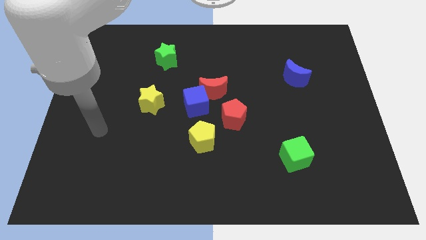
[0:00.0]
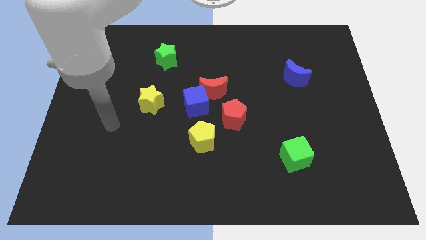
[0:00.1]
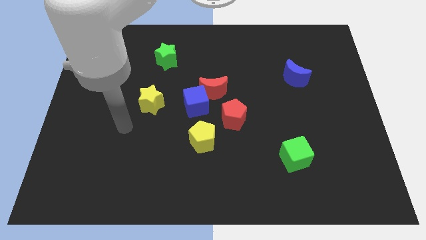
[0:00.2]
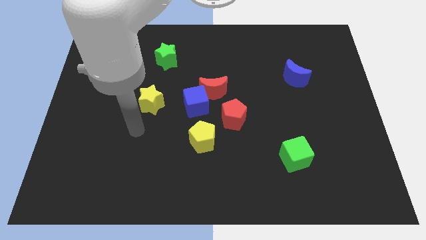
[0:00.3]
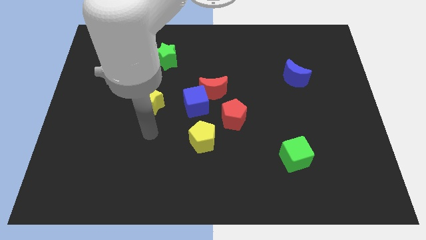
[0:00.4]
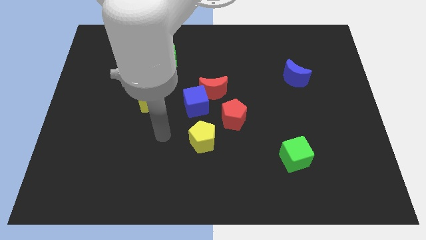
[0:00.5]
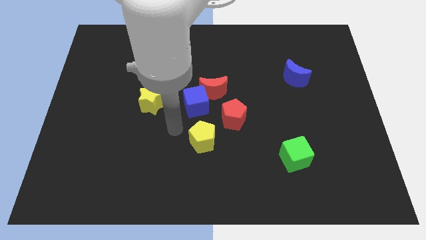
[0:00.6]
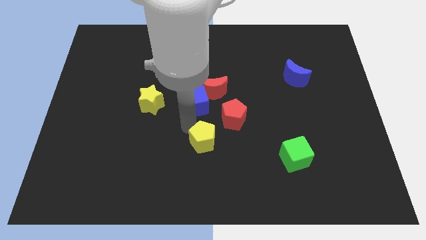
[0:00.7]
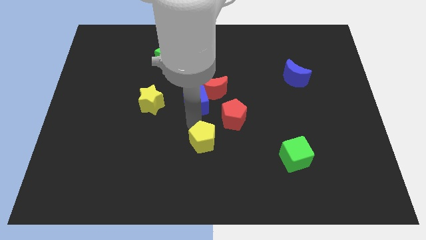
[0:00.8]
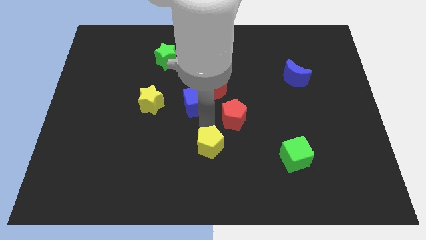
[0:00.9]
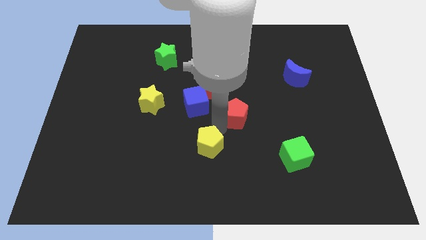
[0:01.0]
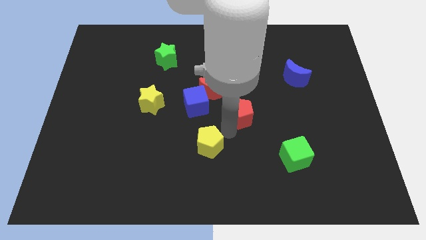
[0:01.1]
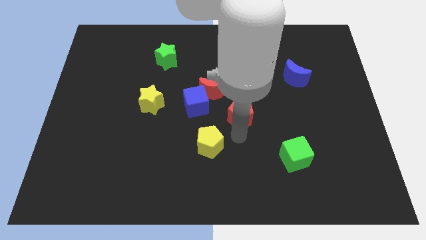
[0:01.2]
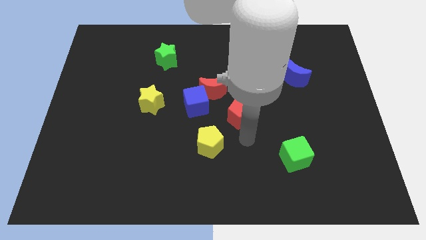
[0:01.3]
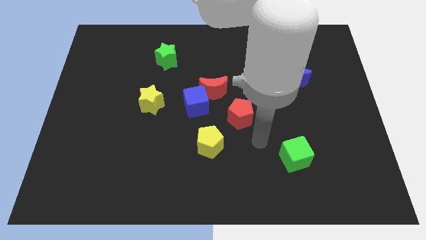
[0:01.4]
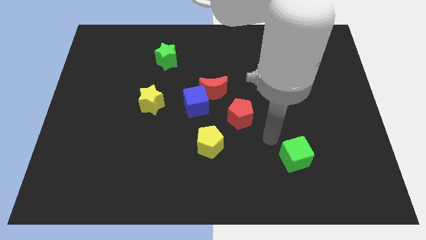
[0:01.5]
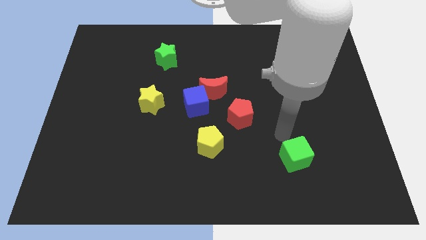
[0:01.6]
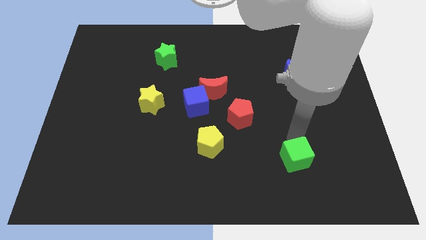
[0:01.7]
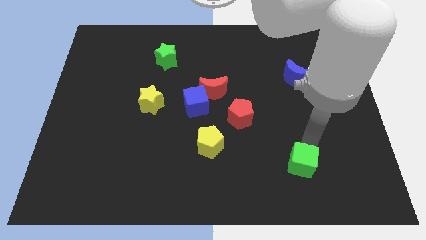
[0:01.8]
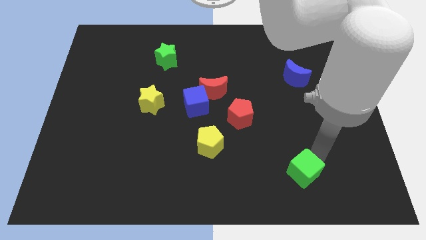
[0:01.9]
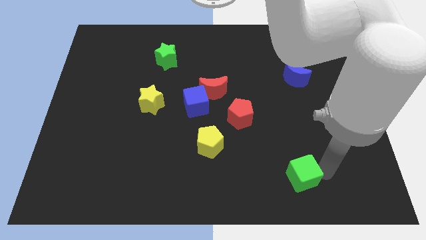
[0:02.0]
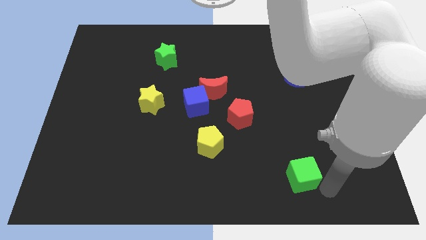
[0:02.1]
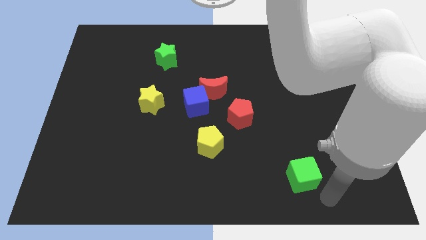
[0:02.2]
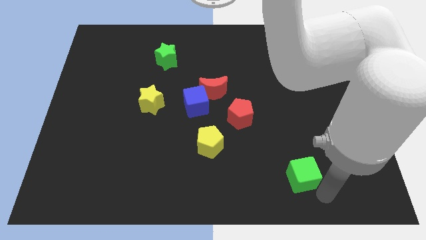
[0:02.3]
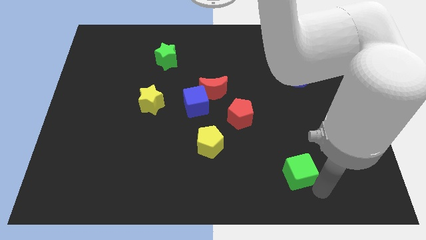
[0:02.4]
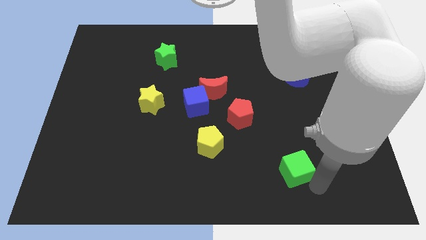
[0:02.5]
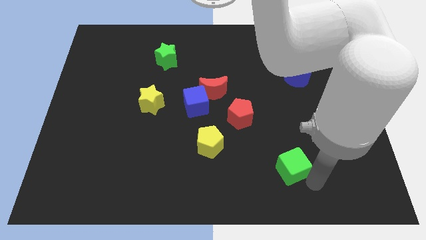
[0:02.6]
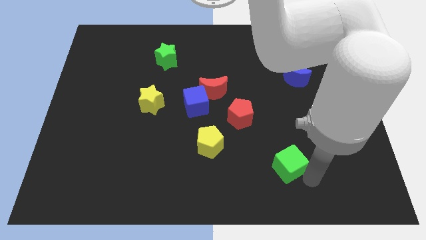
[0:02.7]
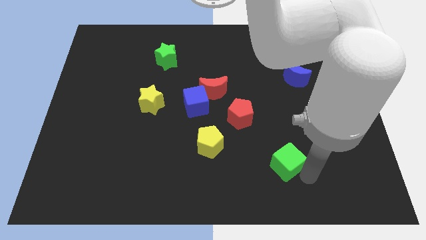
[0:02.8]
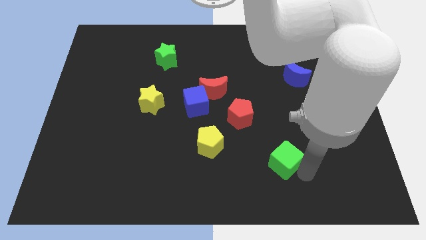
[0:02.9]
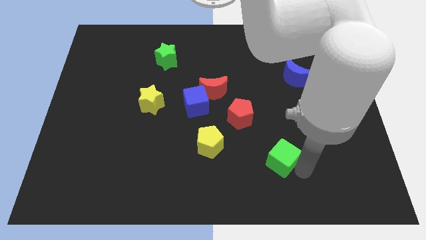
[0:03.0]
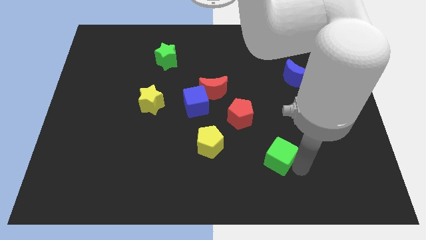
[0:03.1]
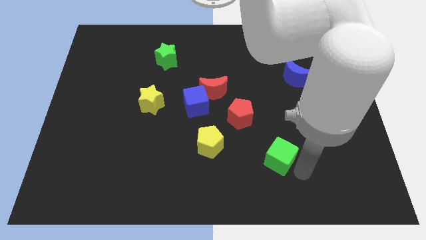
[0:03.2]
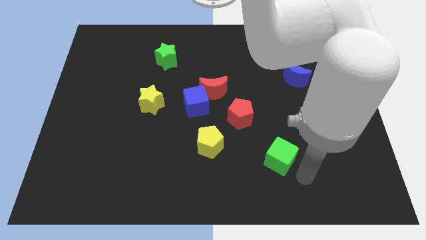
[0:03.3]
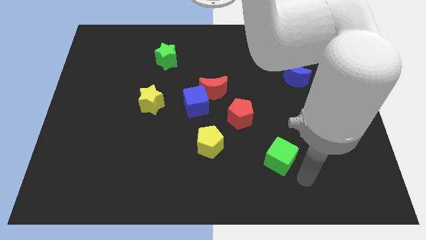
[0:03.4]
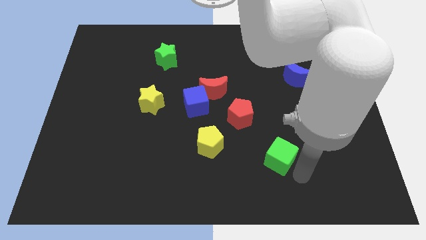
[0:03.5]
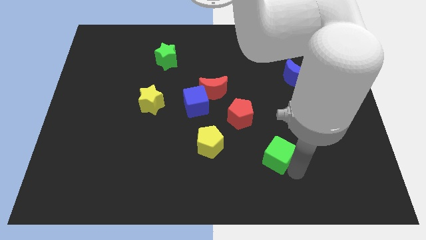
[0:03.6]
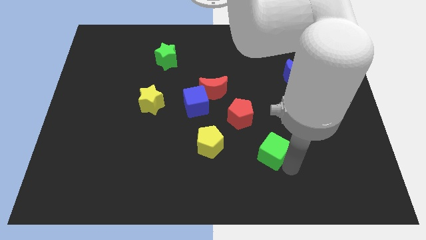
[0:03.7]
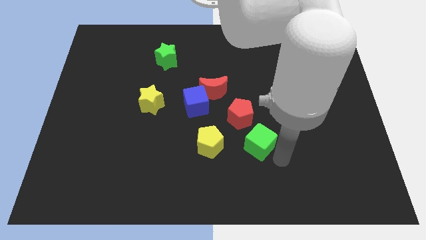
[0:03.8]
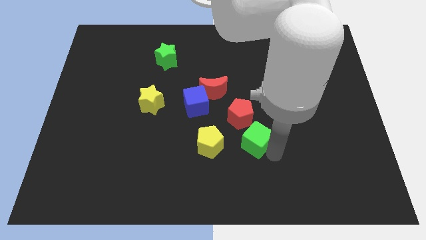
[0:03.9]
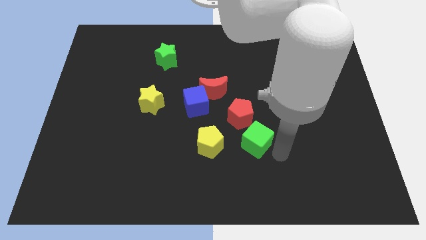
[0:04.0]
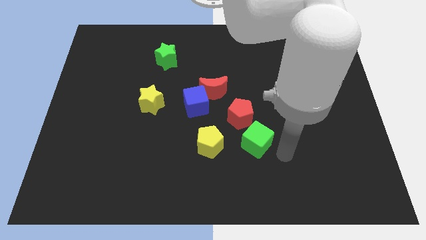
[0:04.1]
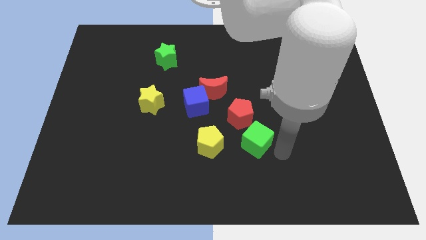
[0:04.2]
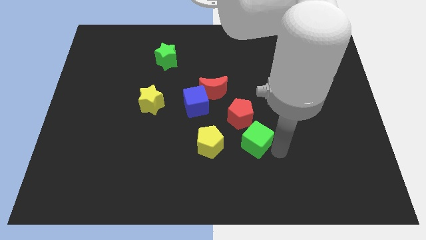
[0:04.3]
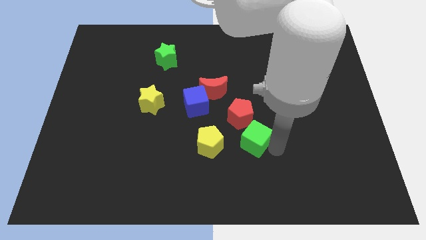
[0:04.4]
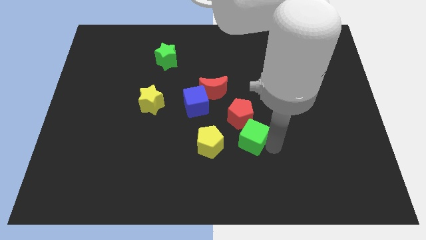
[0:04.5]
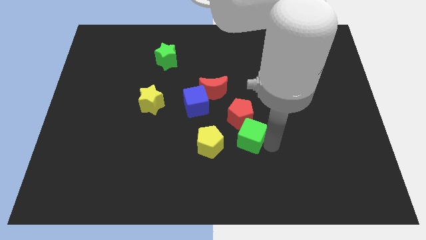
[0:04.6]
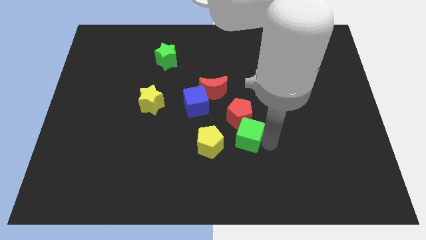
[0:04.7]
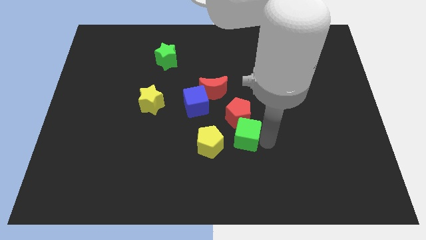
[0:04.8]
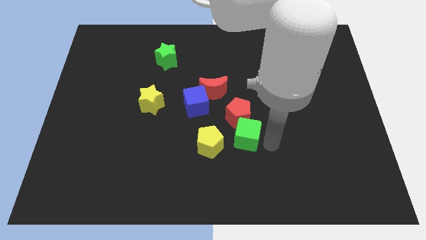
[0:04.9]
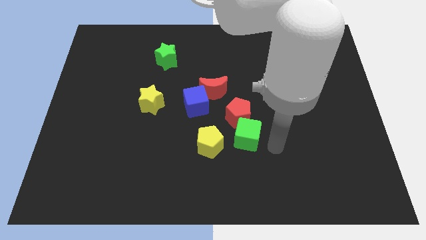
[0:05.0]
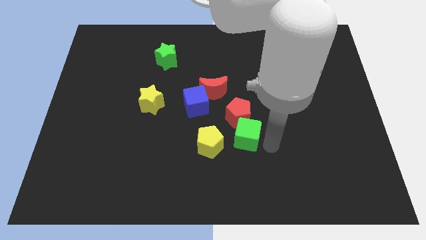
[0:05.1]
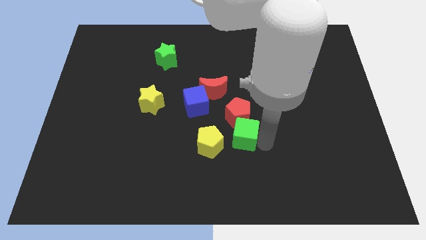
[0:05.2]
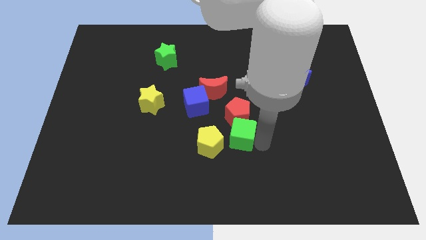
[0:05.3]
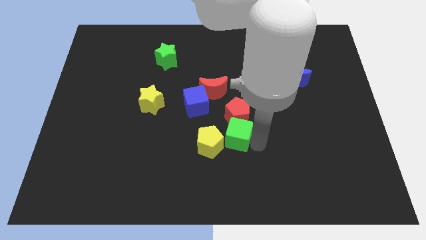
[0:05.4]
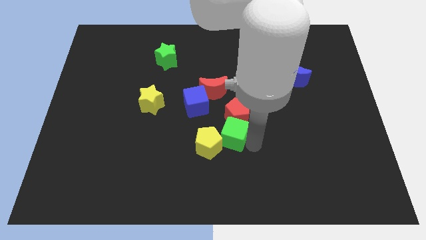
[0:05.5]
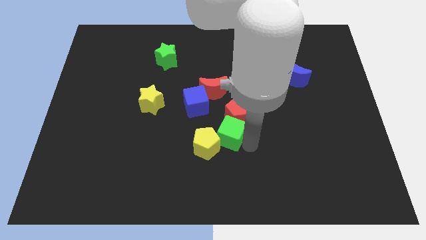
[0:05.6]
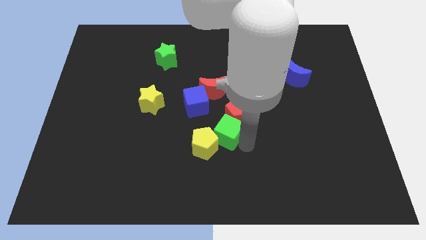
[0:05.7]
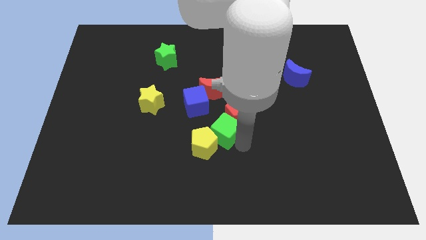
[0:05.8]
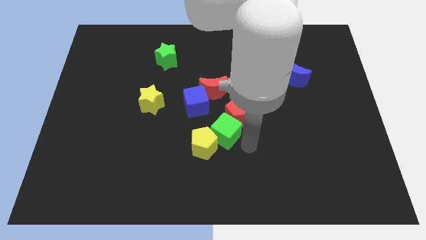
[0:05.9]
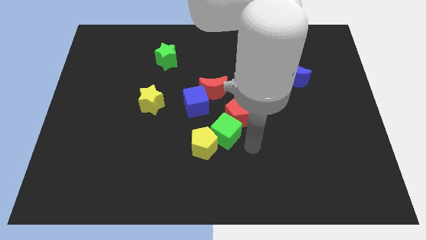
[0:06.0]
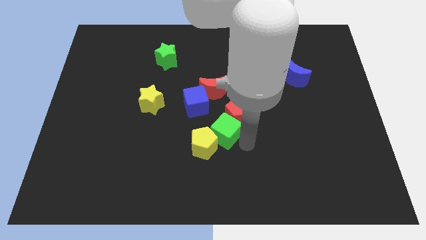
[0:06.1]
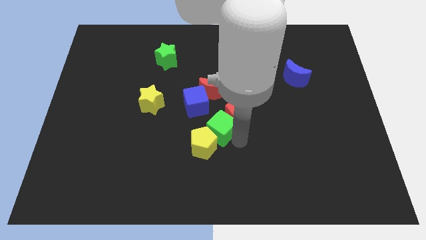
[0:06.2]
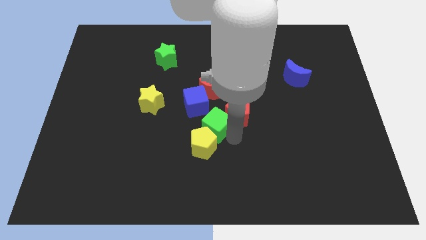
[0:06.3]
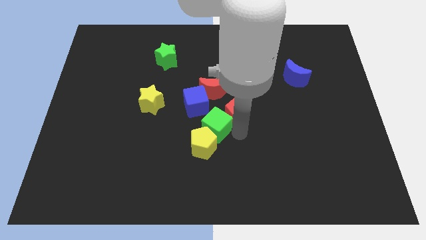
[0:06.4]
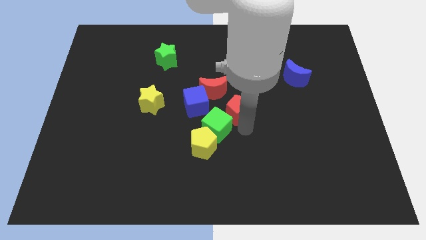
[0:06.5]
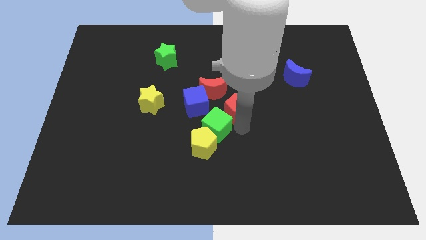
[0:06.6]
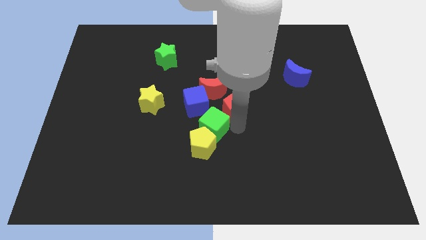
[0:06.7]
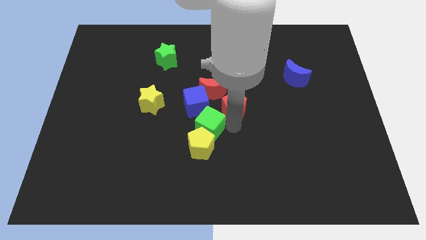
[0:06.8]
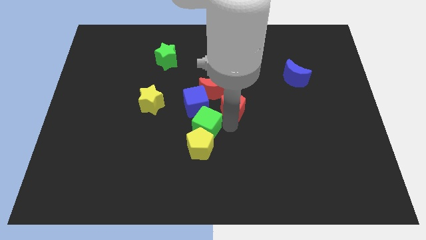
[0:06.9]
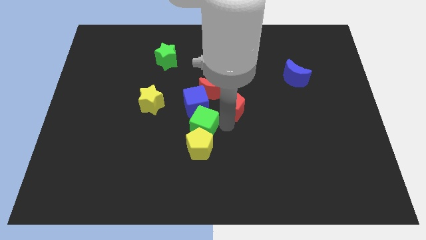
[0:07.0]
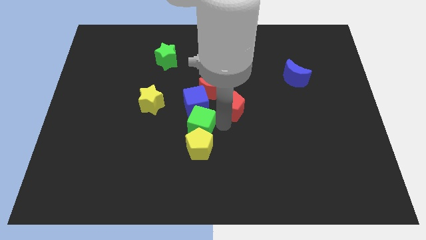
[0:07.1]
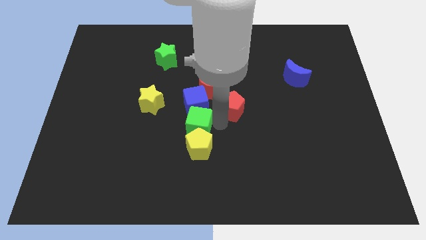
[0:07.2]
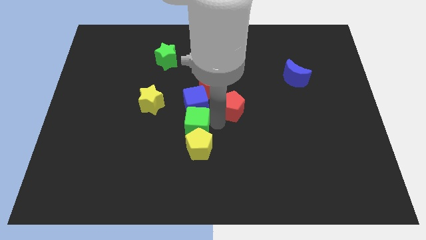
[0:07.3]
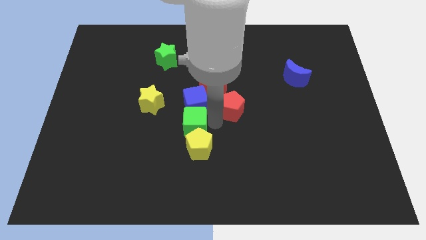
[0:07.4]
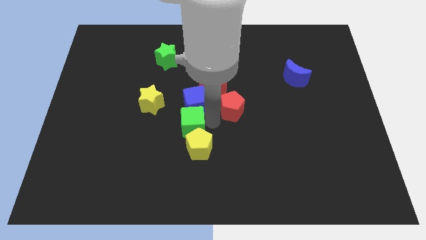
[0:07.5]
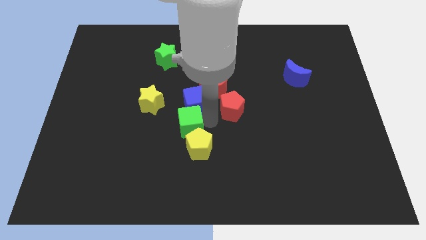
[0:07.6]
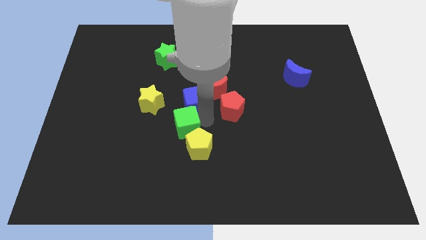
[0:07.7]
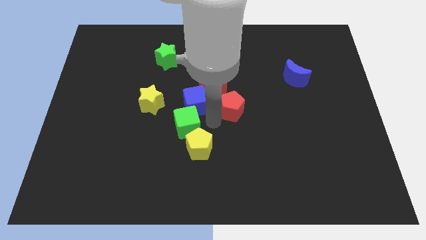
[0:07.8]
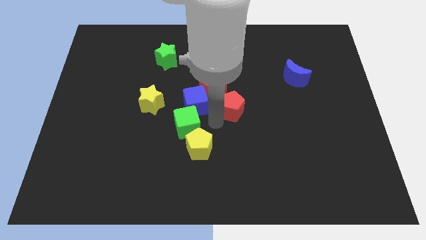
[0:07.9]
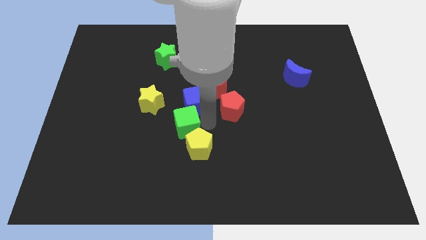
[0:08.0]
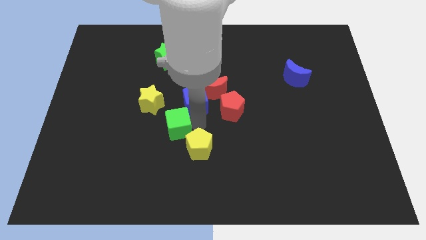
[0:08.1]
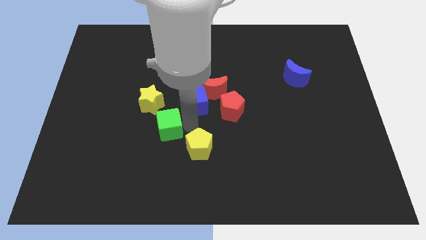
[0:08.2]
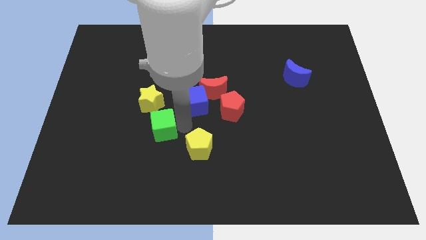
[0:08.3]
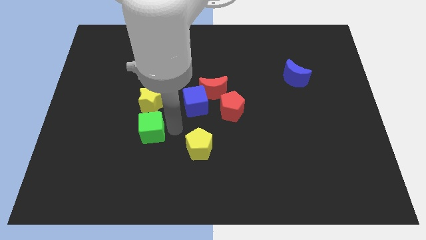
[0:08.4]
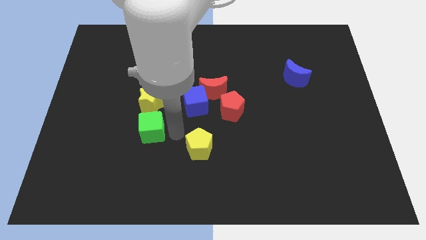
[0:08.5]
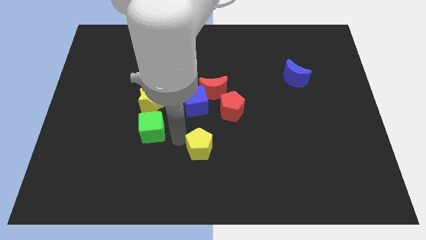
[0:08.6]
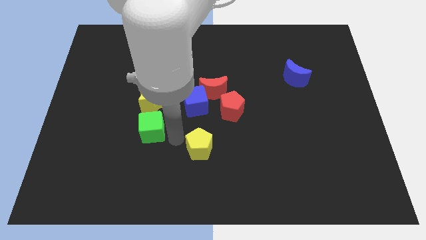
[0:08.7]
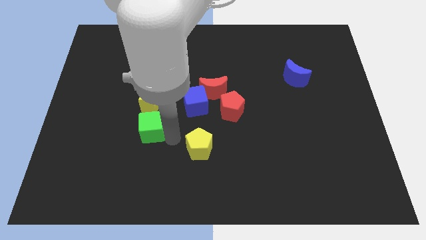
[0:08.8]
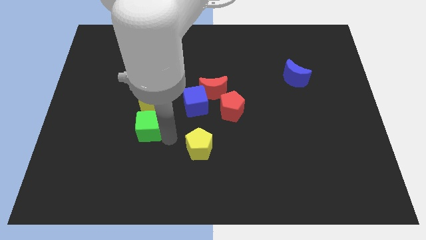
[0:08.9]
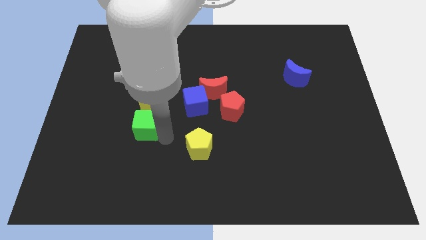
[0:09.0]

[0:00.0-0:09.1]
put the green cube to the bottom left side of the yellow star
